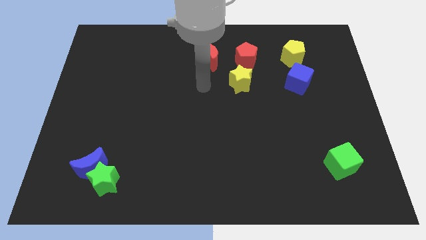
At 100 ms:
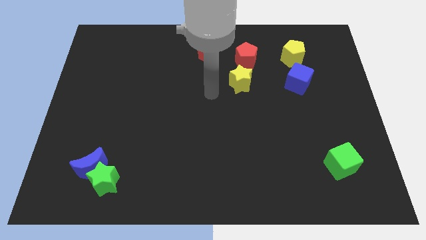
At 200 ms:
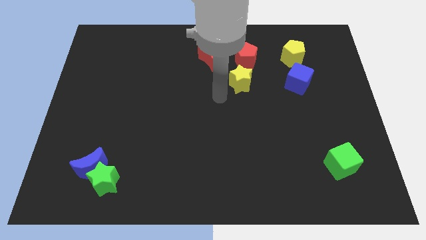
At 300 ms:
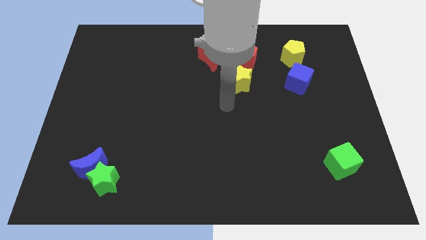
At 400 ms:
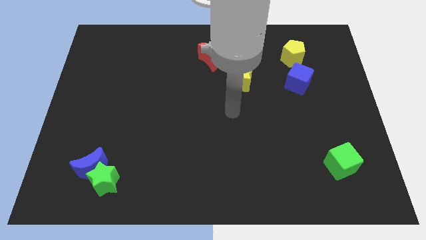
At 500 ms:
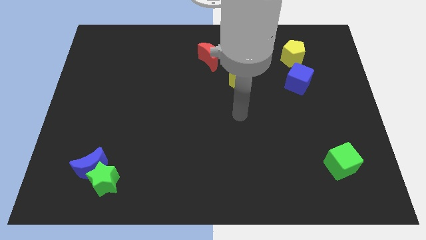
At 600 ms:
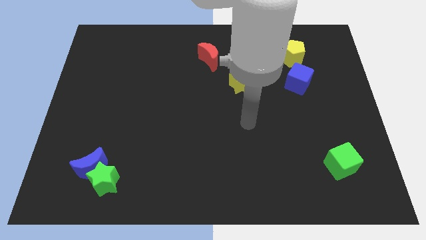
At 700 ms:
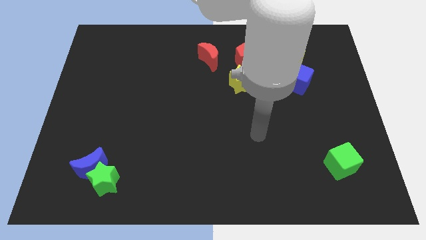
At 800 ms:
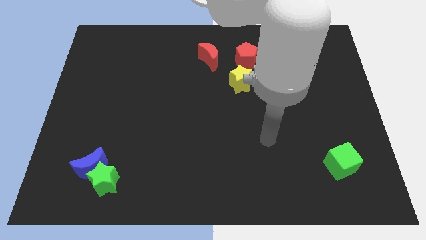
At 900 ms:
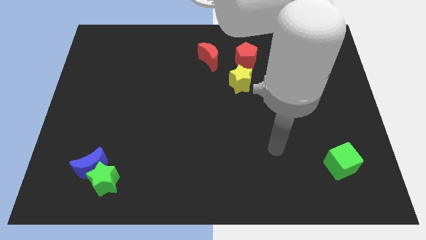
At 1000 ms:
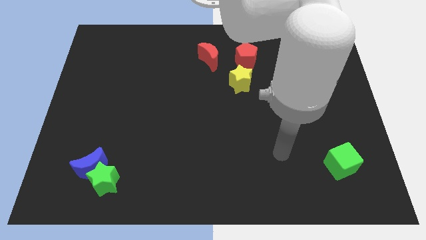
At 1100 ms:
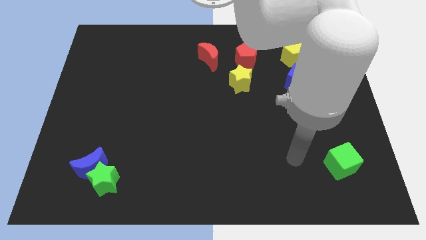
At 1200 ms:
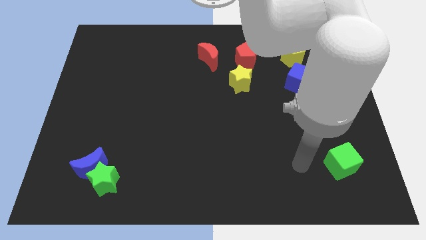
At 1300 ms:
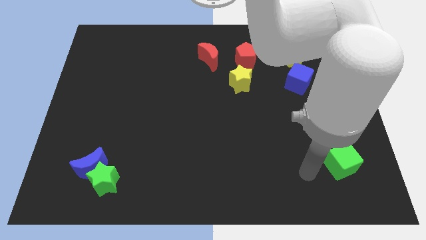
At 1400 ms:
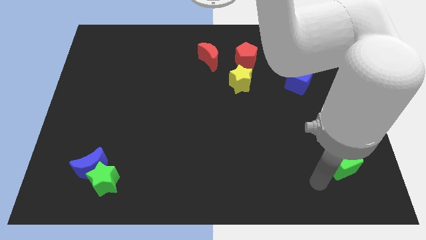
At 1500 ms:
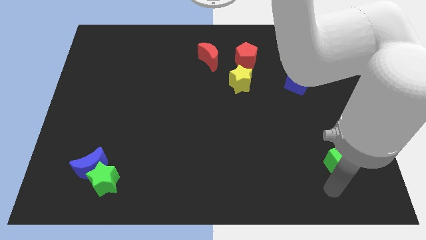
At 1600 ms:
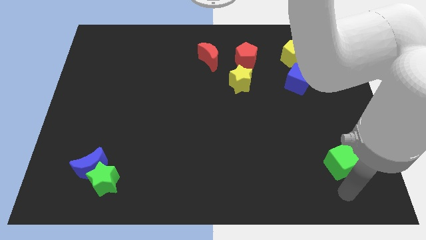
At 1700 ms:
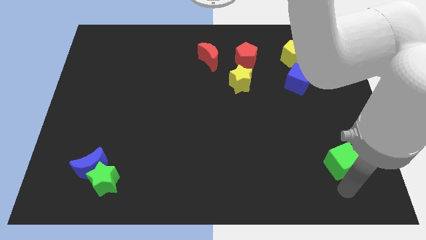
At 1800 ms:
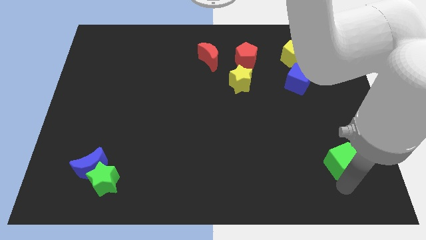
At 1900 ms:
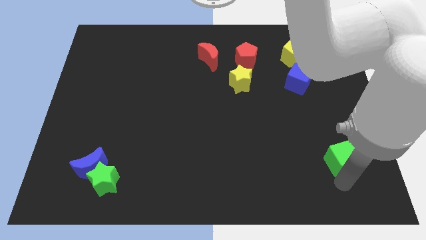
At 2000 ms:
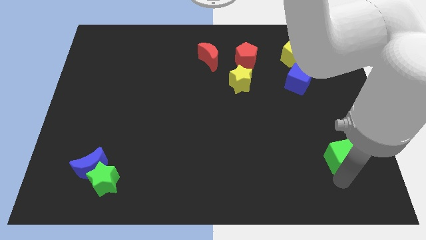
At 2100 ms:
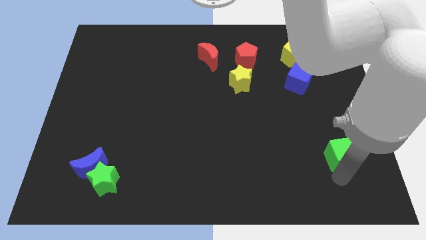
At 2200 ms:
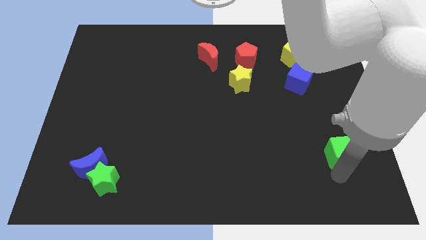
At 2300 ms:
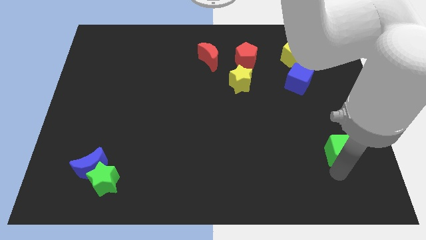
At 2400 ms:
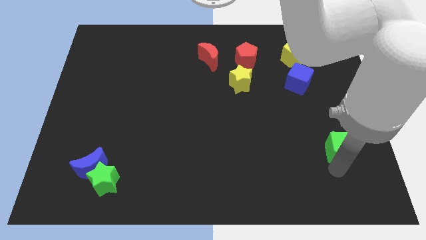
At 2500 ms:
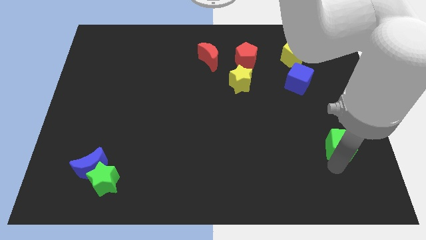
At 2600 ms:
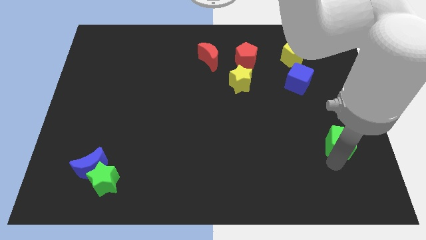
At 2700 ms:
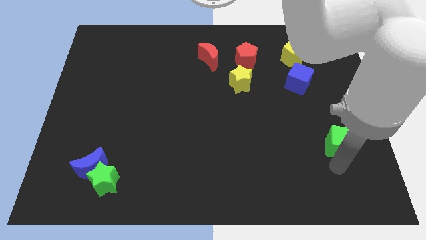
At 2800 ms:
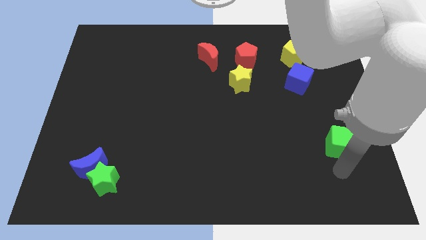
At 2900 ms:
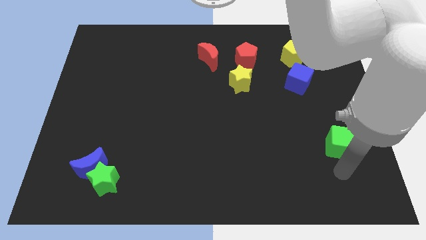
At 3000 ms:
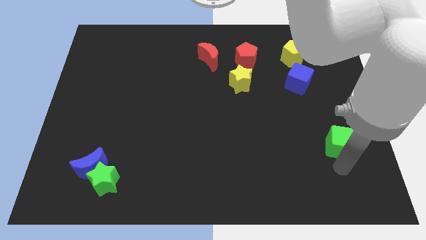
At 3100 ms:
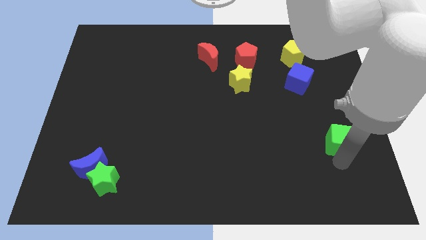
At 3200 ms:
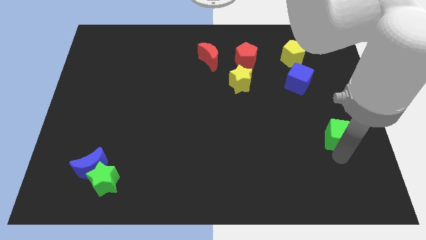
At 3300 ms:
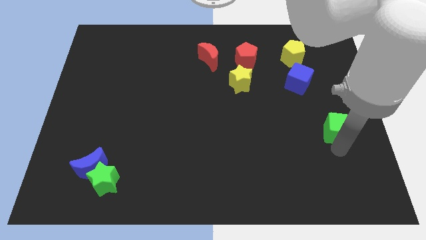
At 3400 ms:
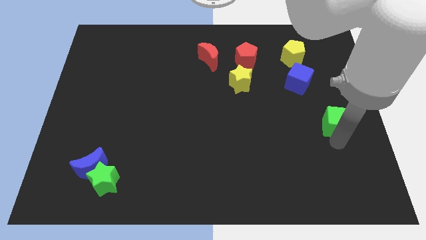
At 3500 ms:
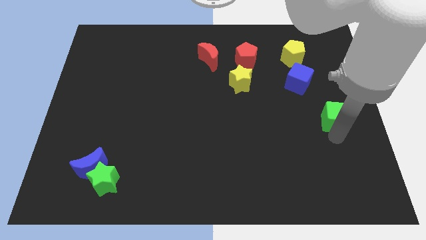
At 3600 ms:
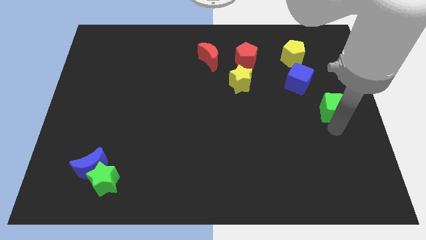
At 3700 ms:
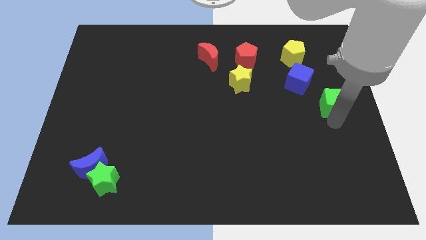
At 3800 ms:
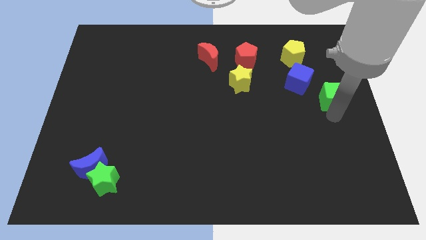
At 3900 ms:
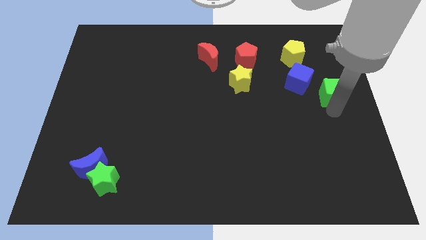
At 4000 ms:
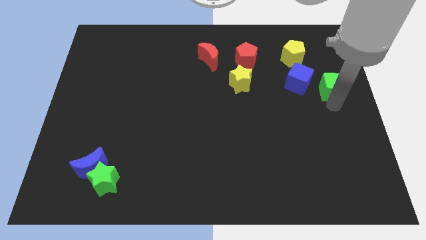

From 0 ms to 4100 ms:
move the green cube up

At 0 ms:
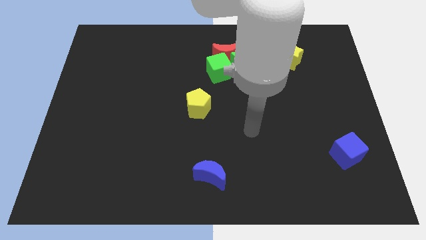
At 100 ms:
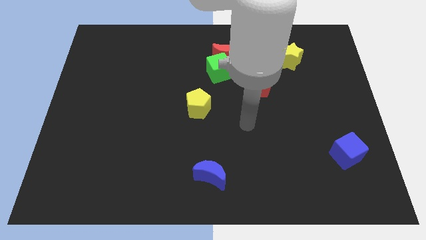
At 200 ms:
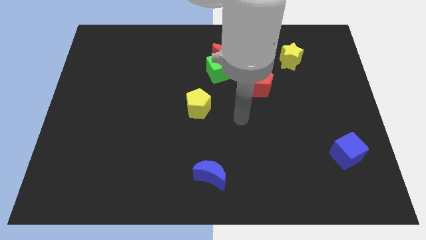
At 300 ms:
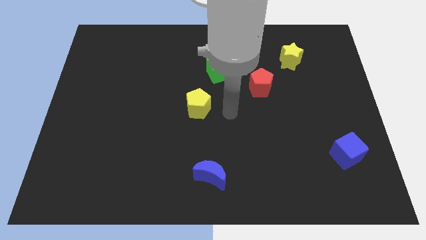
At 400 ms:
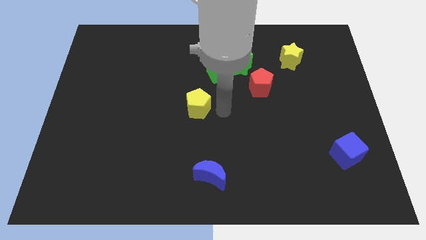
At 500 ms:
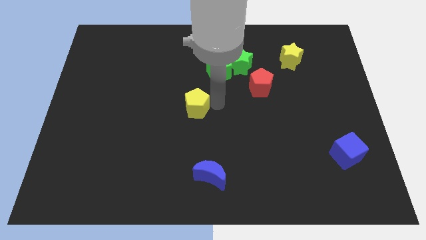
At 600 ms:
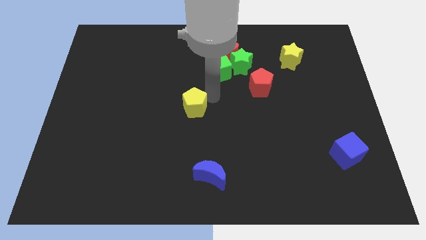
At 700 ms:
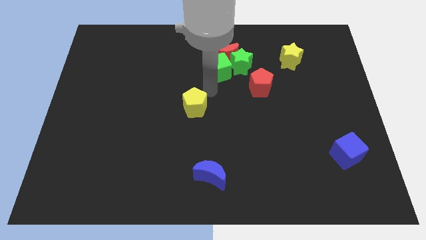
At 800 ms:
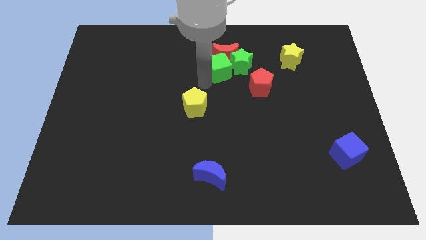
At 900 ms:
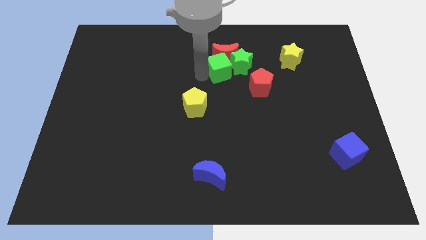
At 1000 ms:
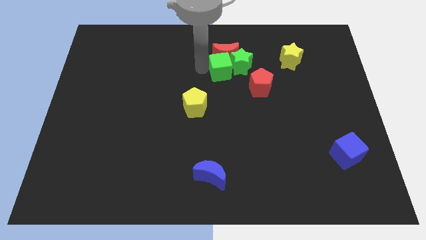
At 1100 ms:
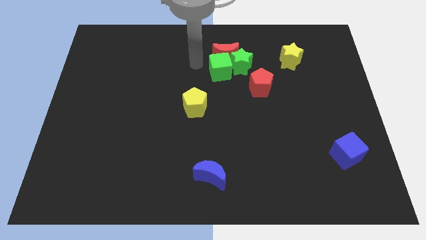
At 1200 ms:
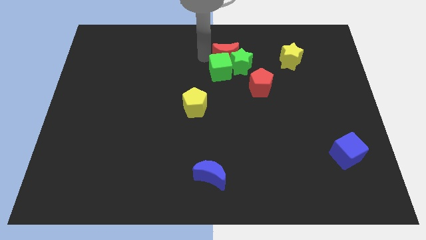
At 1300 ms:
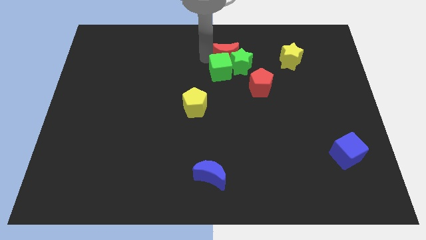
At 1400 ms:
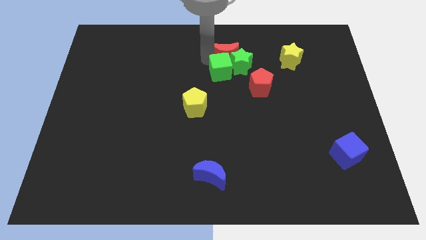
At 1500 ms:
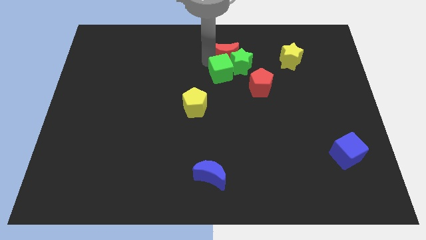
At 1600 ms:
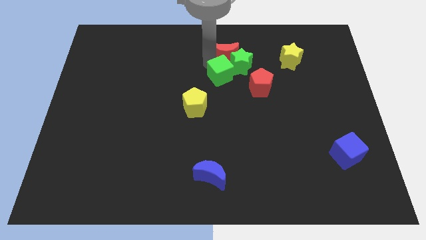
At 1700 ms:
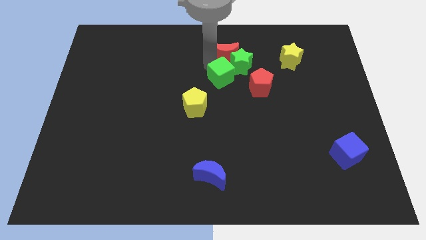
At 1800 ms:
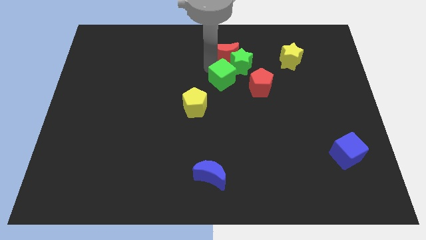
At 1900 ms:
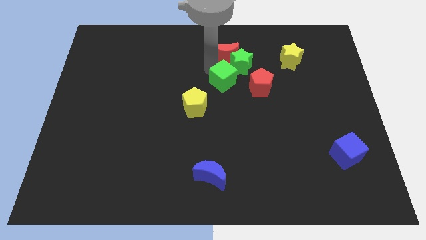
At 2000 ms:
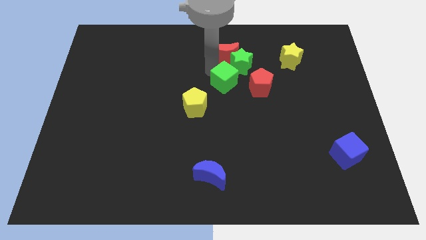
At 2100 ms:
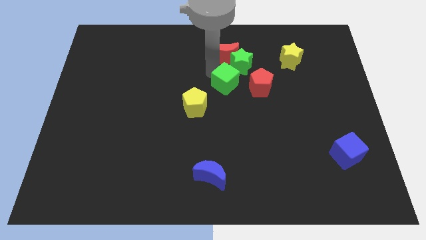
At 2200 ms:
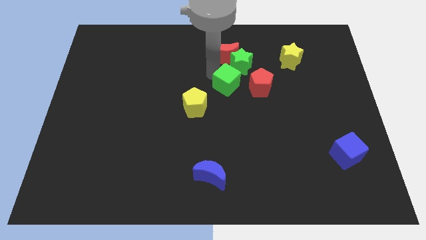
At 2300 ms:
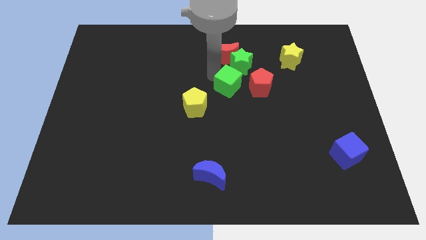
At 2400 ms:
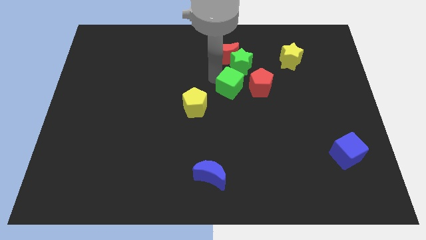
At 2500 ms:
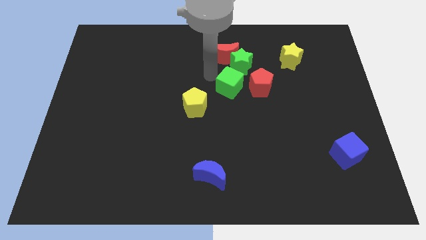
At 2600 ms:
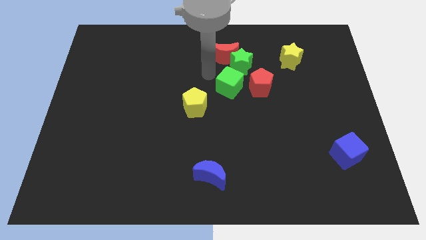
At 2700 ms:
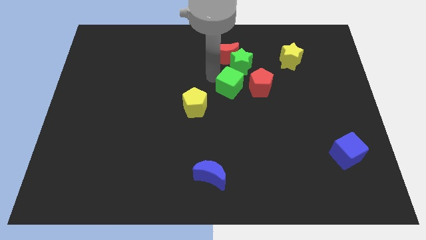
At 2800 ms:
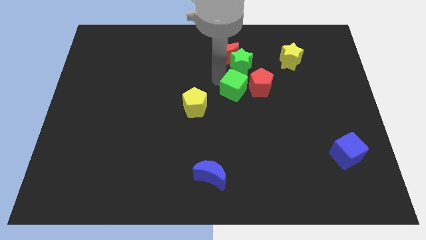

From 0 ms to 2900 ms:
move the green cube downwards and right somewhat

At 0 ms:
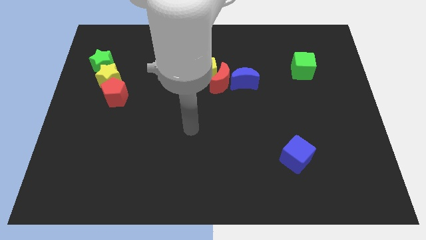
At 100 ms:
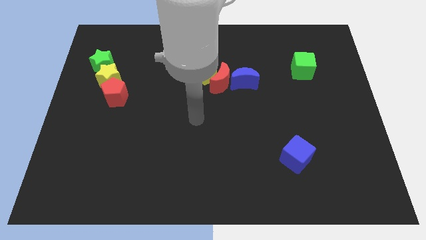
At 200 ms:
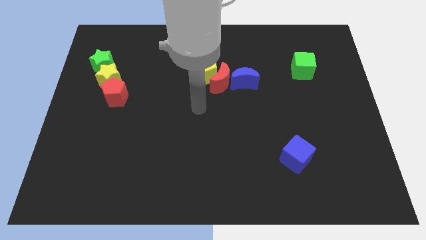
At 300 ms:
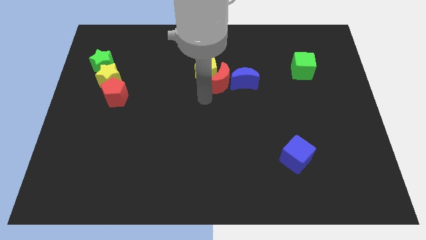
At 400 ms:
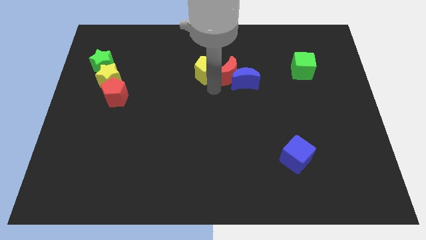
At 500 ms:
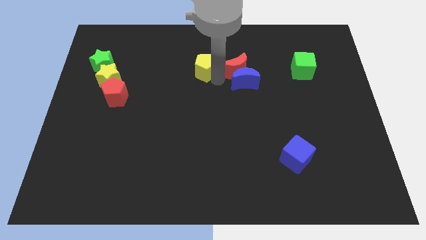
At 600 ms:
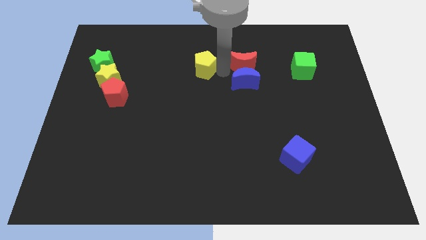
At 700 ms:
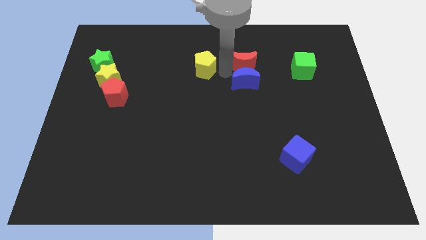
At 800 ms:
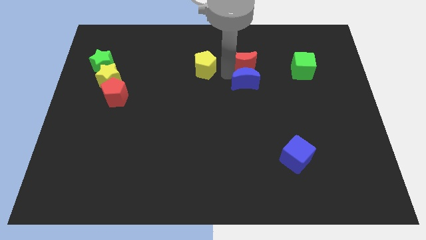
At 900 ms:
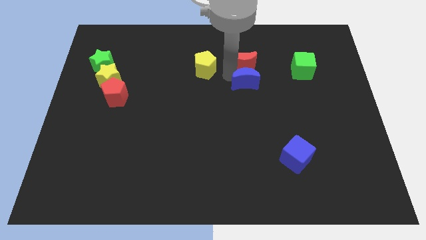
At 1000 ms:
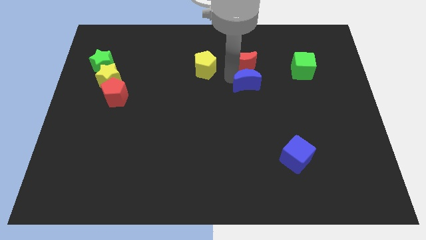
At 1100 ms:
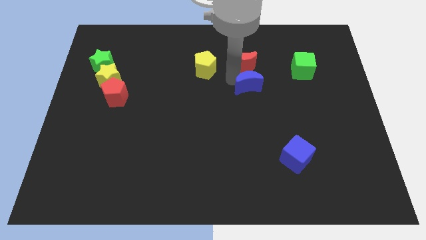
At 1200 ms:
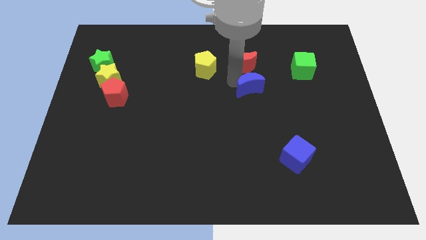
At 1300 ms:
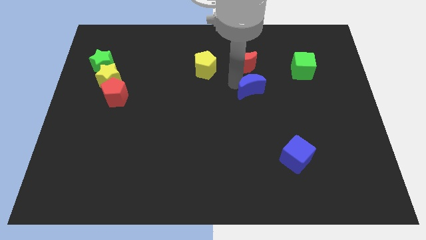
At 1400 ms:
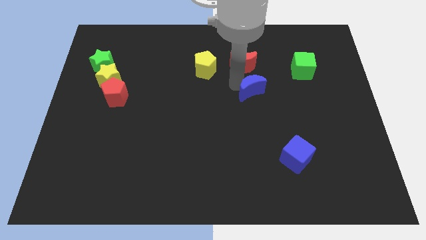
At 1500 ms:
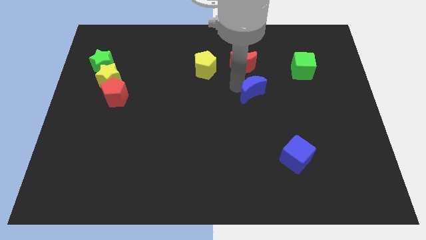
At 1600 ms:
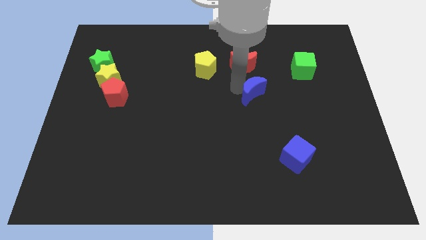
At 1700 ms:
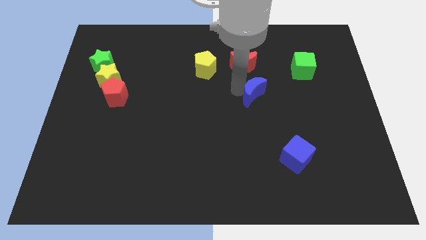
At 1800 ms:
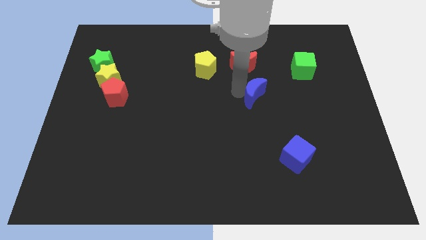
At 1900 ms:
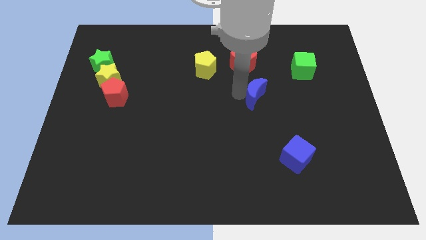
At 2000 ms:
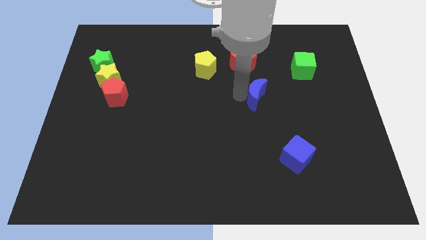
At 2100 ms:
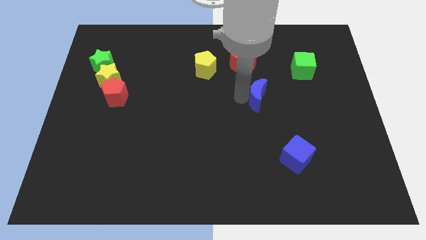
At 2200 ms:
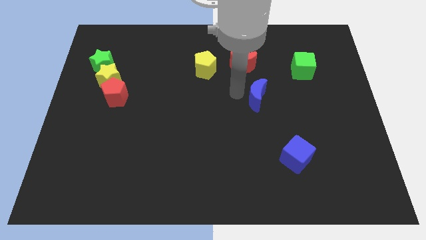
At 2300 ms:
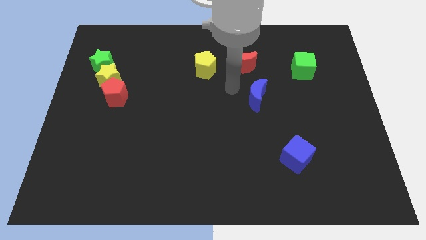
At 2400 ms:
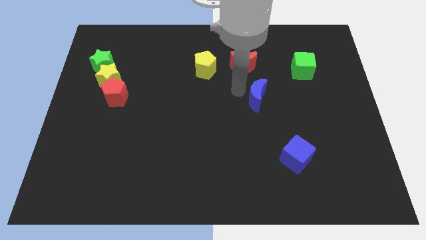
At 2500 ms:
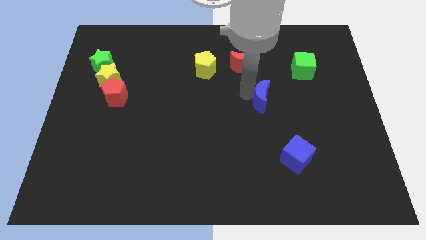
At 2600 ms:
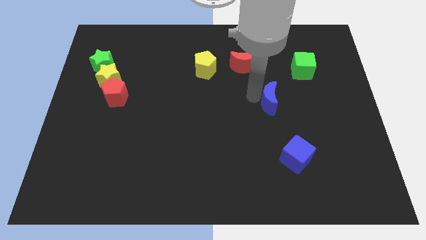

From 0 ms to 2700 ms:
push the blue moon down and right slightly
